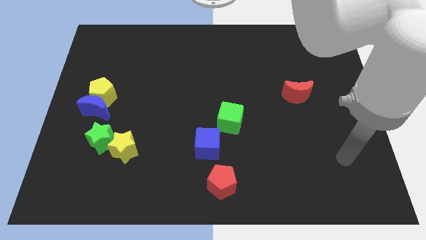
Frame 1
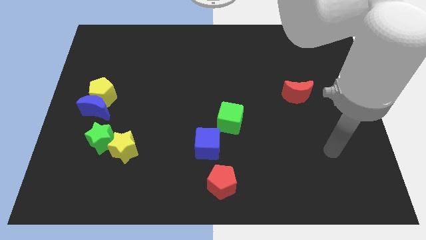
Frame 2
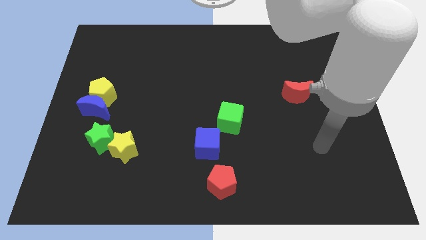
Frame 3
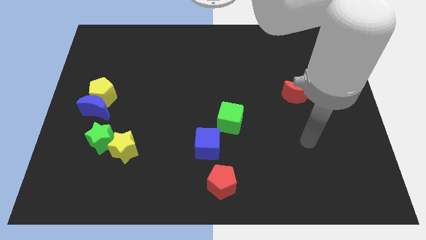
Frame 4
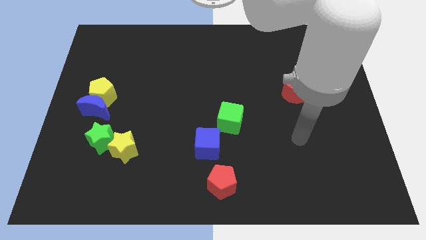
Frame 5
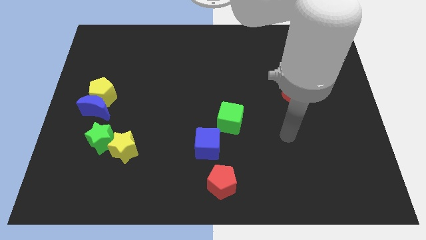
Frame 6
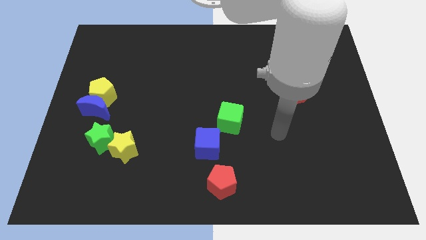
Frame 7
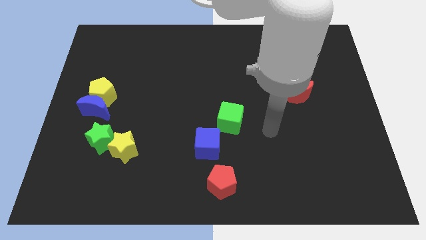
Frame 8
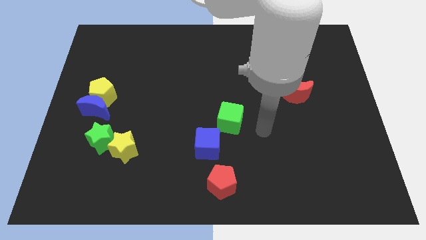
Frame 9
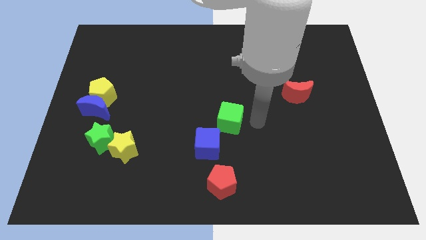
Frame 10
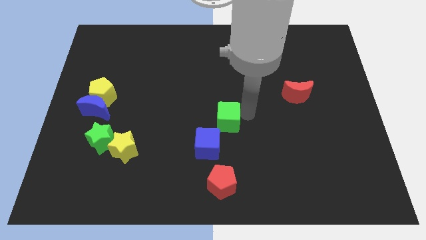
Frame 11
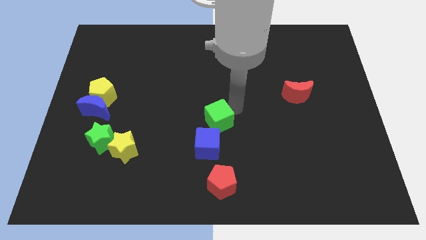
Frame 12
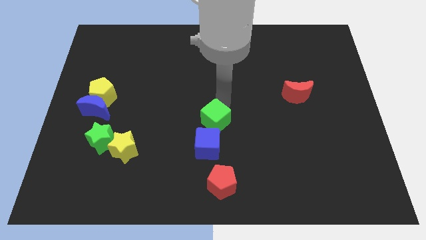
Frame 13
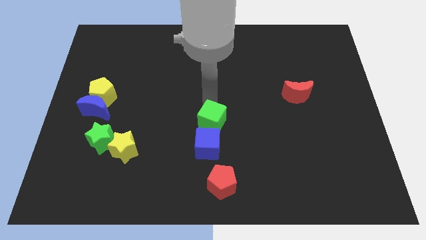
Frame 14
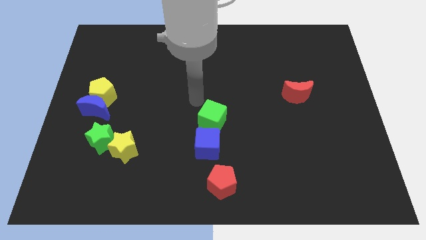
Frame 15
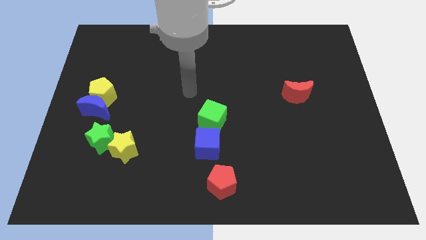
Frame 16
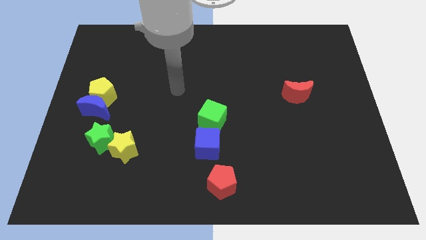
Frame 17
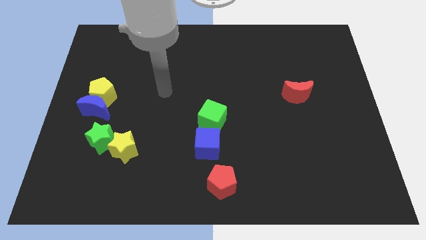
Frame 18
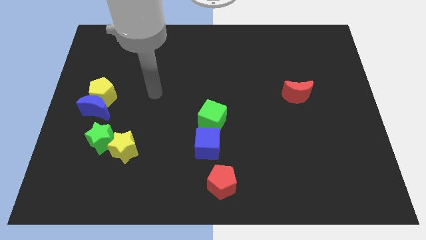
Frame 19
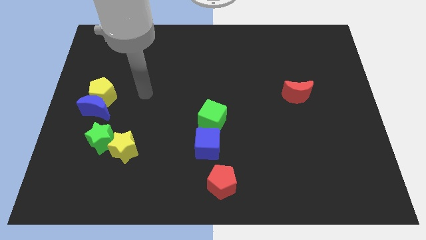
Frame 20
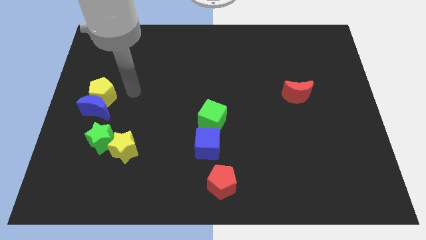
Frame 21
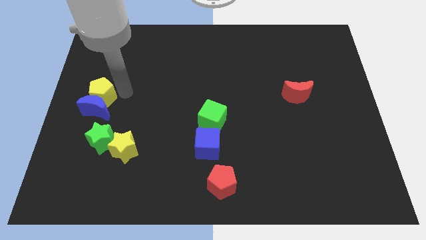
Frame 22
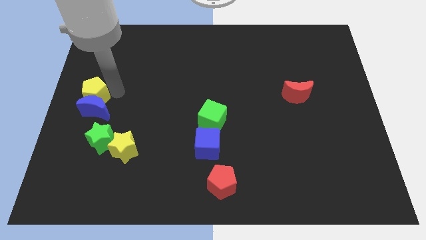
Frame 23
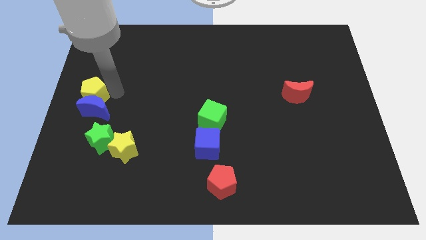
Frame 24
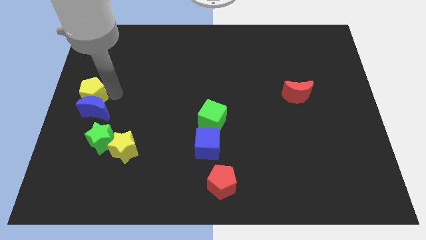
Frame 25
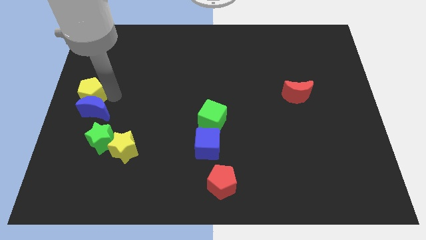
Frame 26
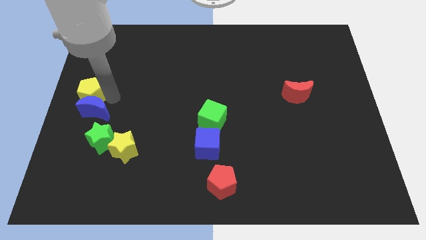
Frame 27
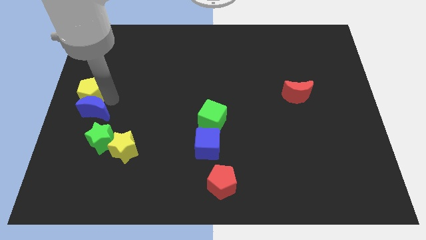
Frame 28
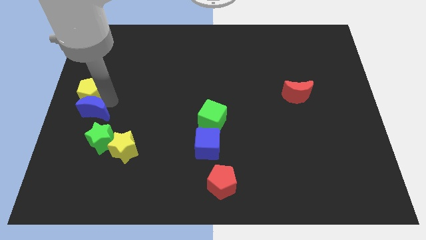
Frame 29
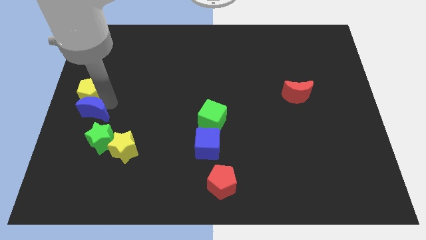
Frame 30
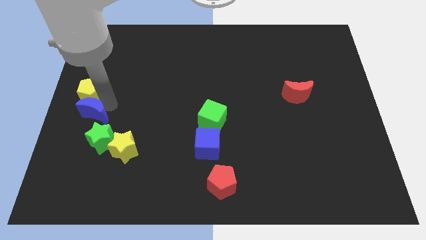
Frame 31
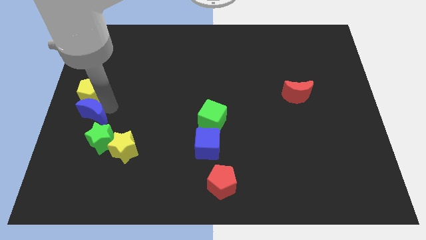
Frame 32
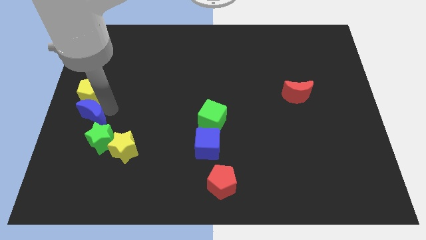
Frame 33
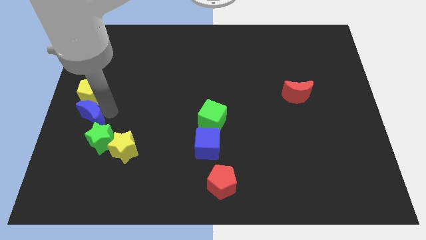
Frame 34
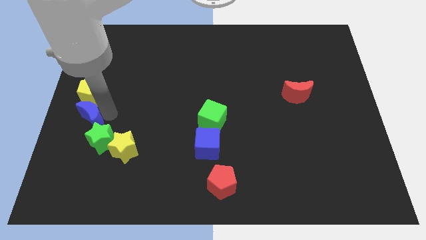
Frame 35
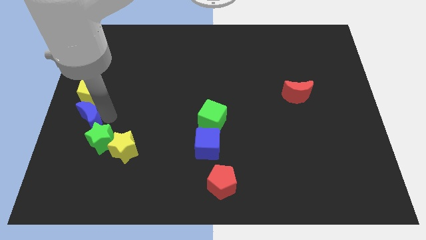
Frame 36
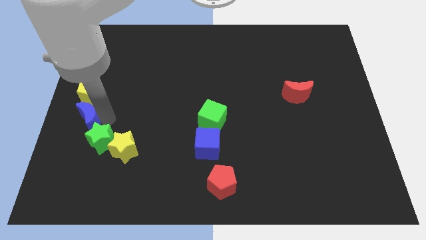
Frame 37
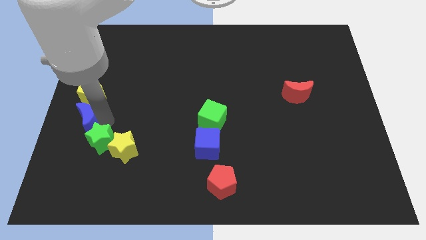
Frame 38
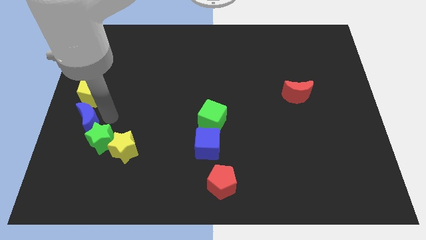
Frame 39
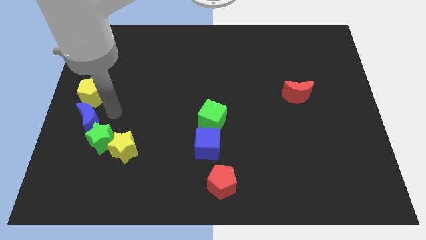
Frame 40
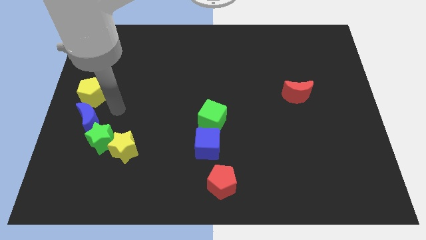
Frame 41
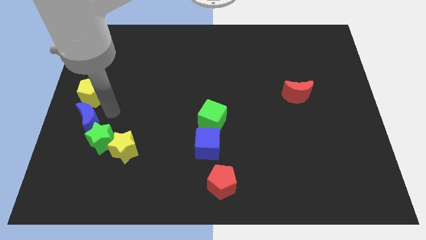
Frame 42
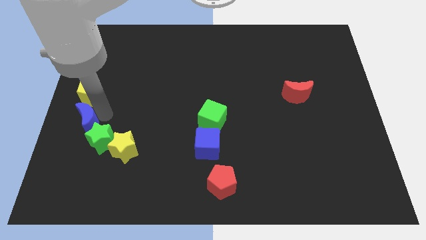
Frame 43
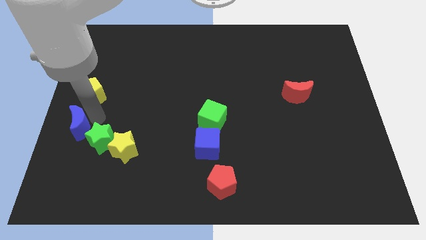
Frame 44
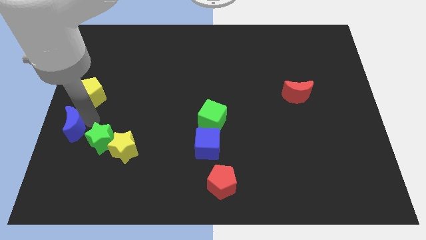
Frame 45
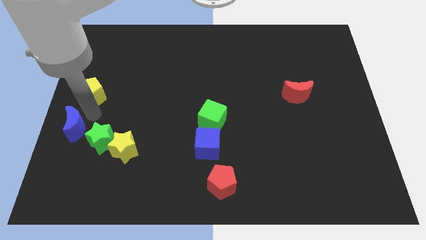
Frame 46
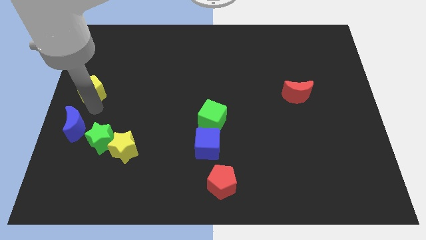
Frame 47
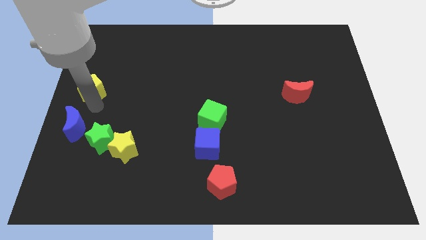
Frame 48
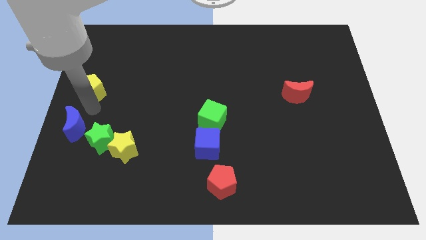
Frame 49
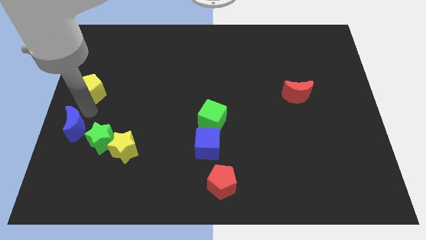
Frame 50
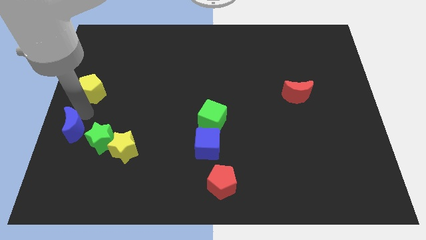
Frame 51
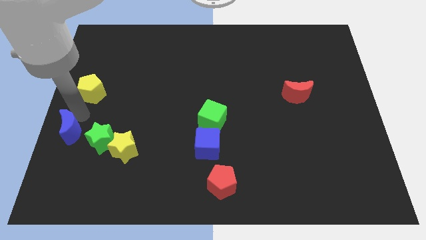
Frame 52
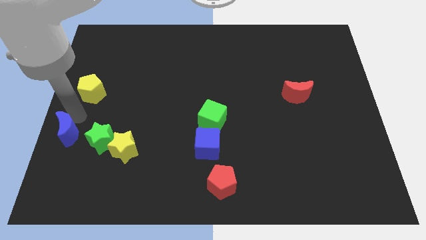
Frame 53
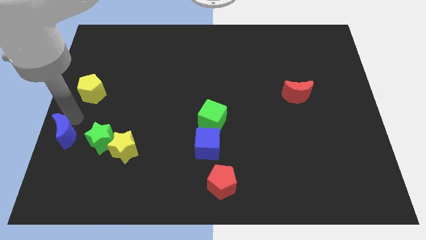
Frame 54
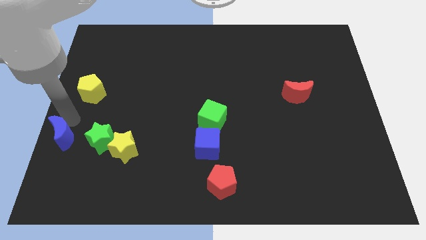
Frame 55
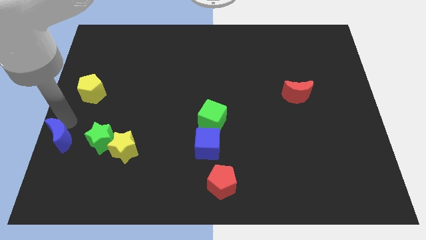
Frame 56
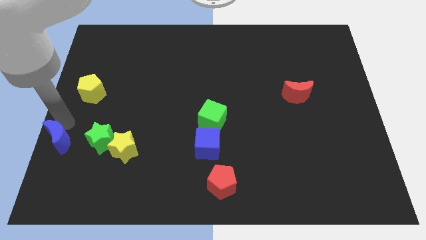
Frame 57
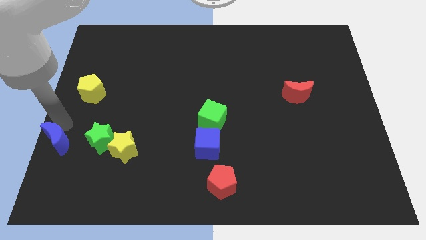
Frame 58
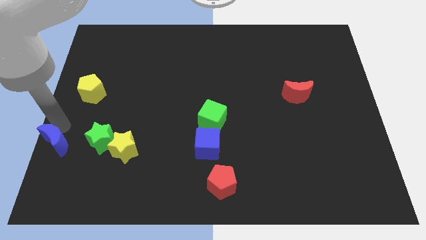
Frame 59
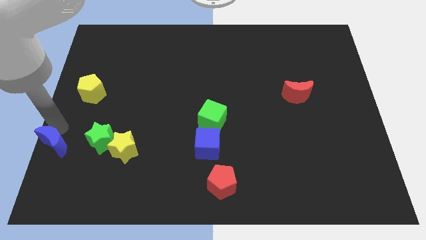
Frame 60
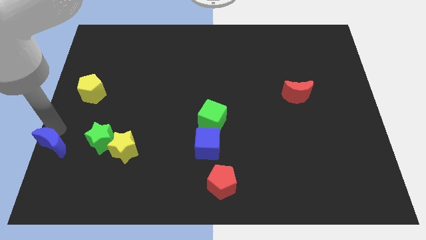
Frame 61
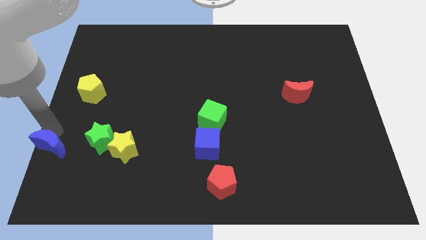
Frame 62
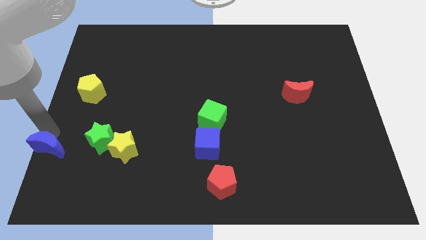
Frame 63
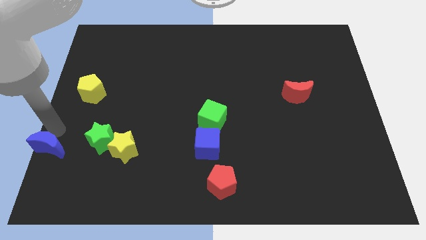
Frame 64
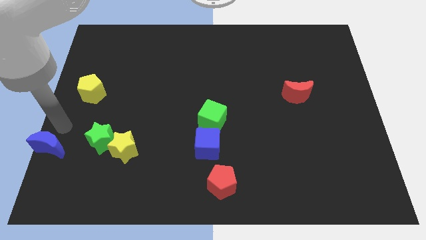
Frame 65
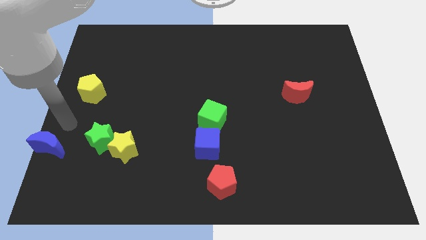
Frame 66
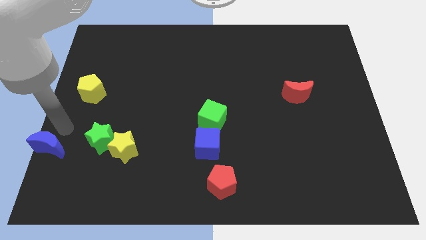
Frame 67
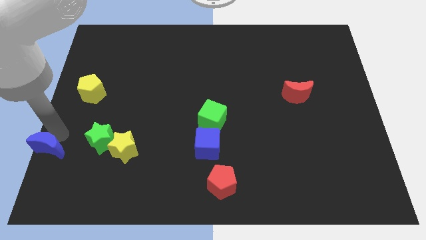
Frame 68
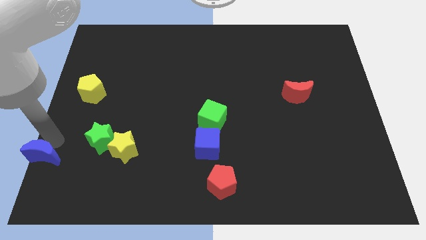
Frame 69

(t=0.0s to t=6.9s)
move the blue moon to the bottom left corner

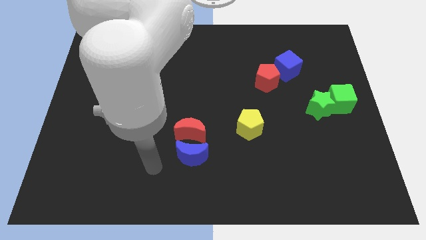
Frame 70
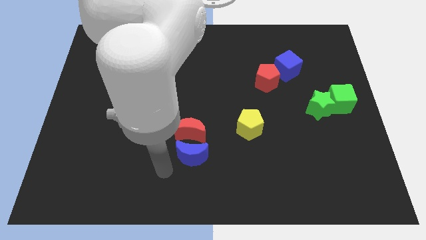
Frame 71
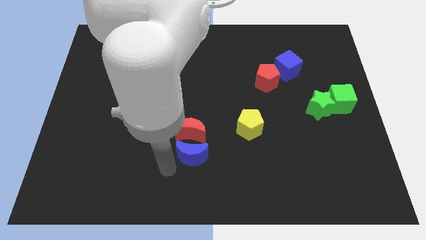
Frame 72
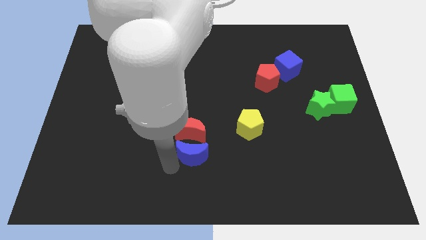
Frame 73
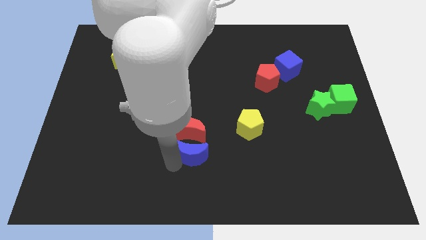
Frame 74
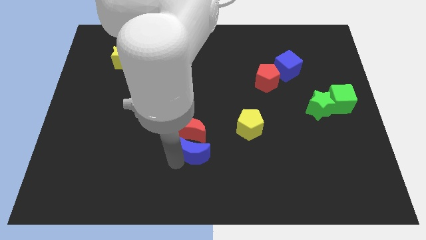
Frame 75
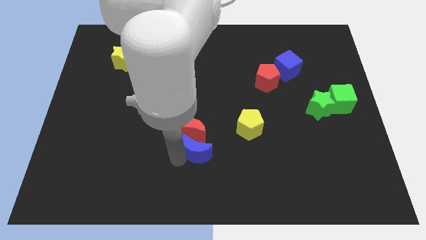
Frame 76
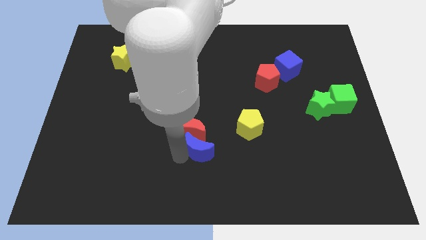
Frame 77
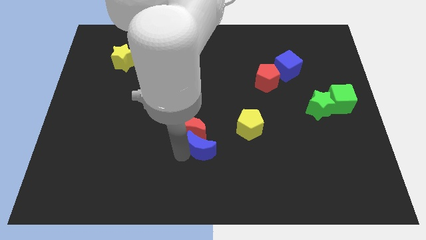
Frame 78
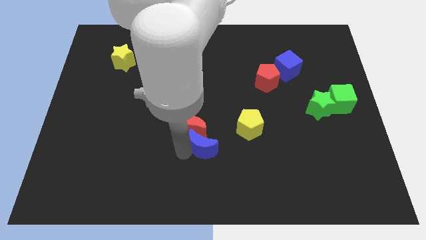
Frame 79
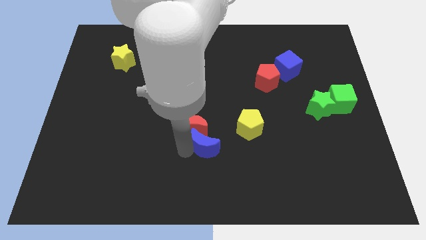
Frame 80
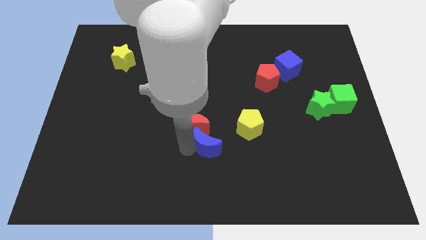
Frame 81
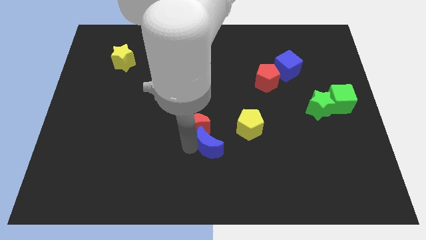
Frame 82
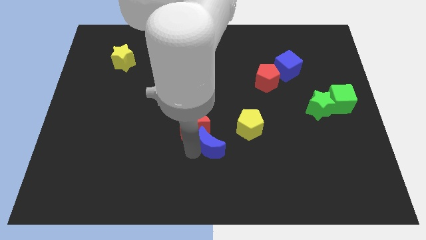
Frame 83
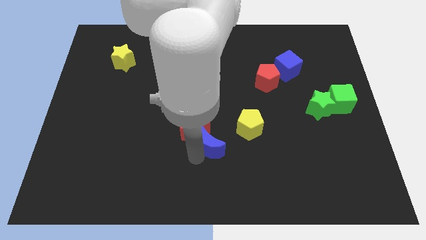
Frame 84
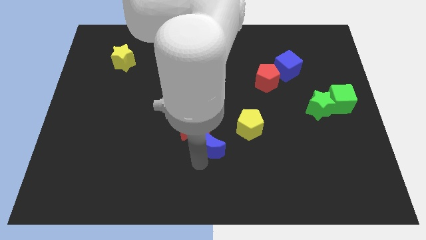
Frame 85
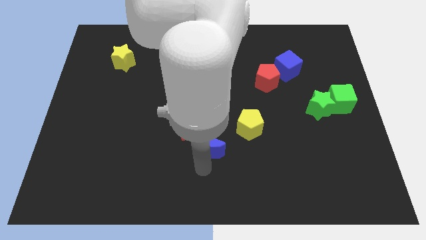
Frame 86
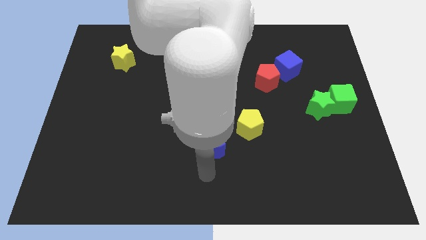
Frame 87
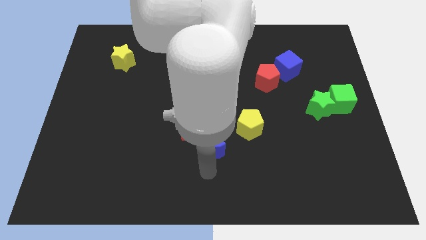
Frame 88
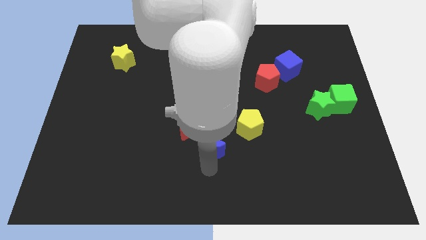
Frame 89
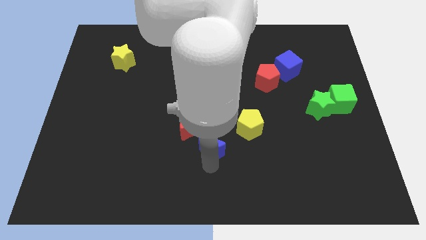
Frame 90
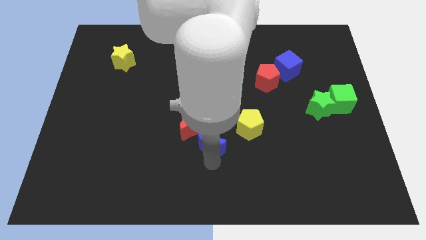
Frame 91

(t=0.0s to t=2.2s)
push the blue moon to the middle of the board
